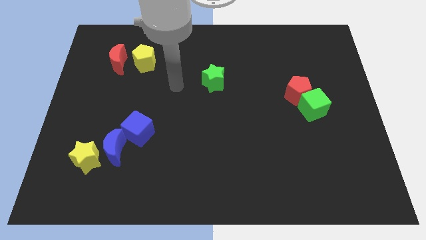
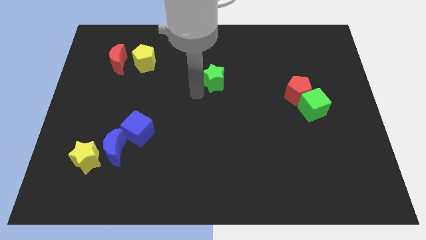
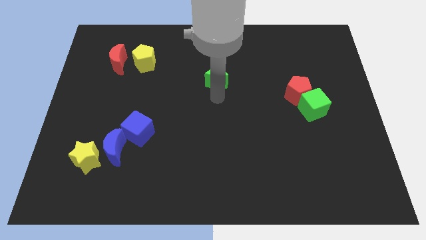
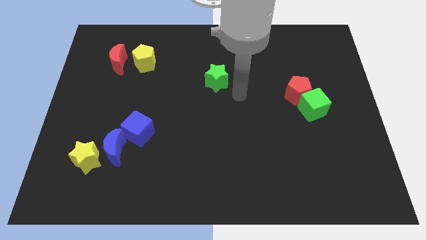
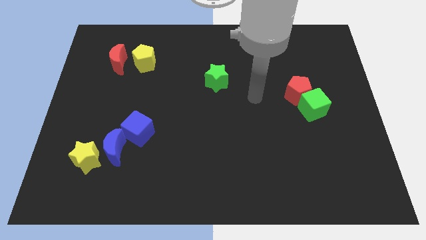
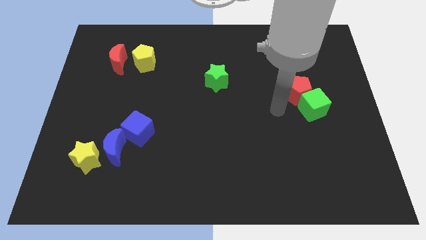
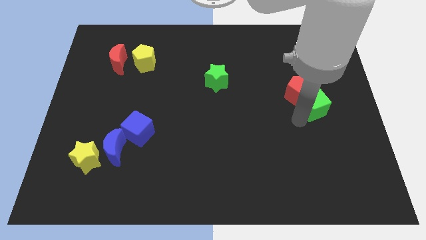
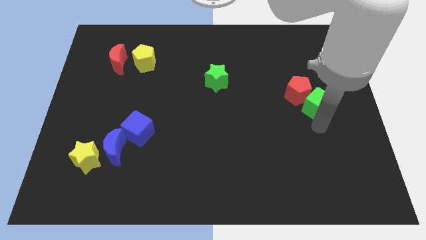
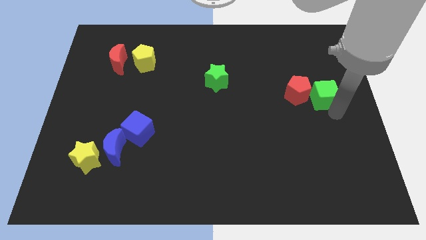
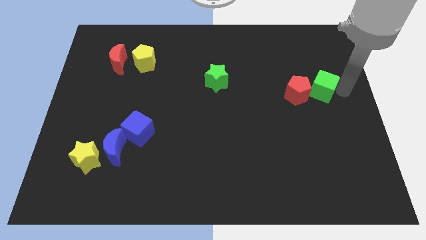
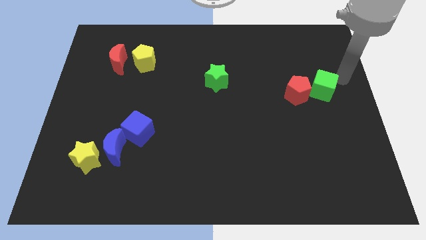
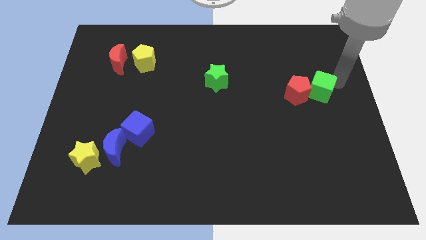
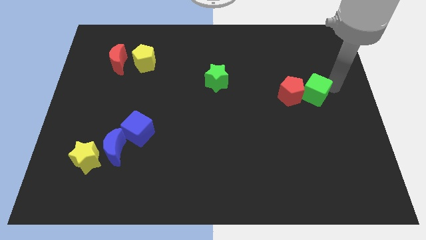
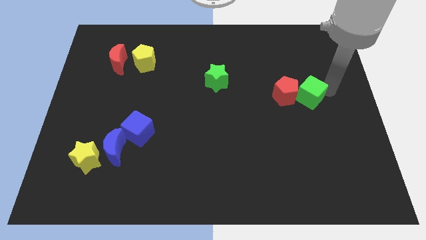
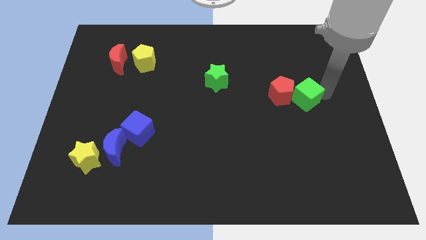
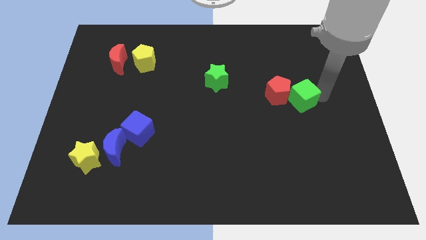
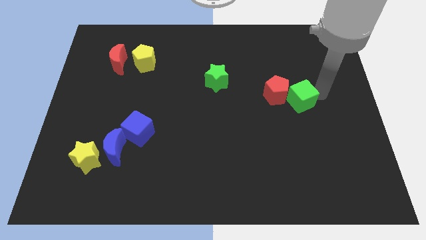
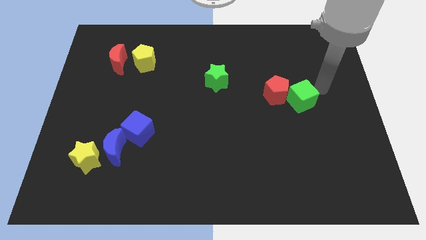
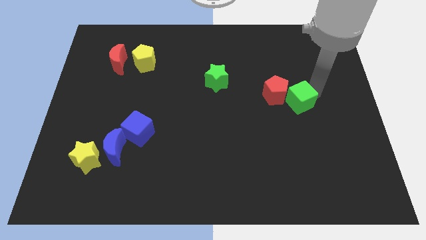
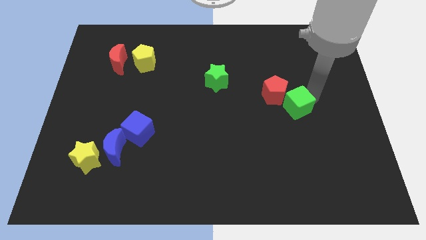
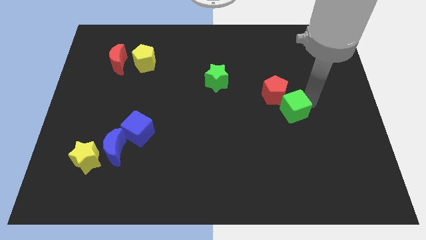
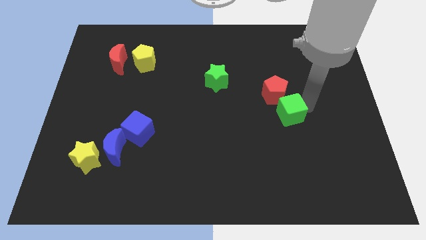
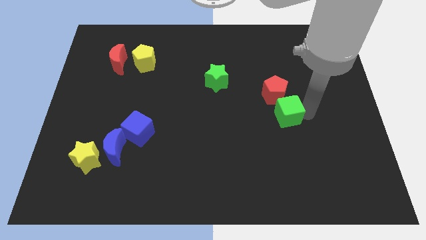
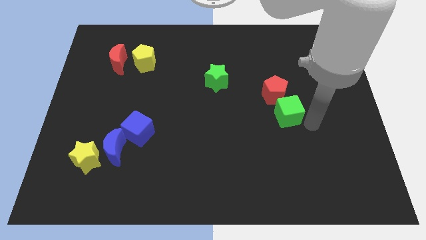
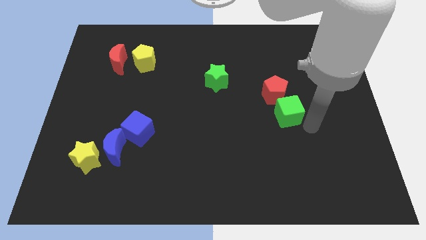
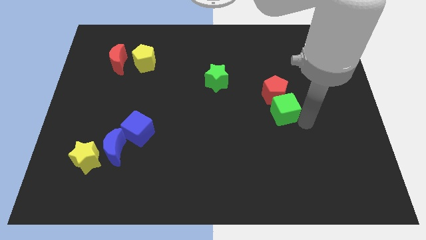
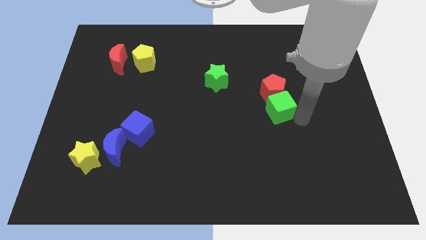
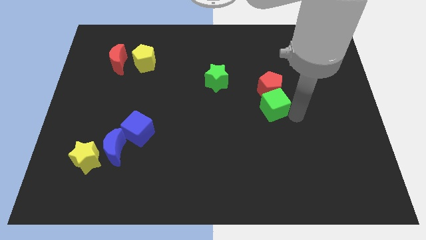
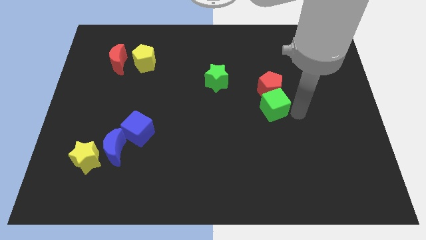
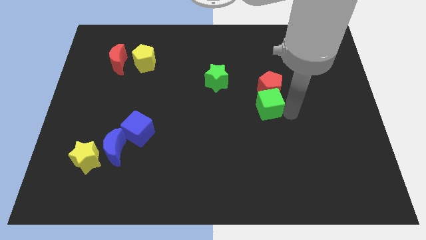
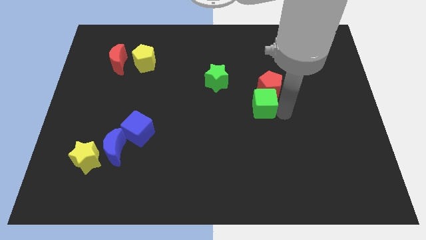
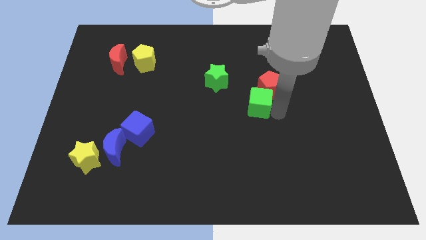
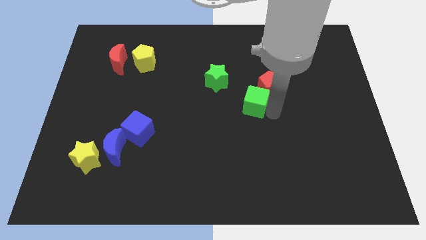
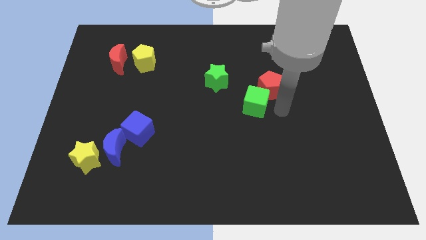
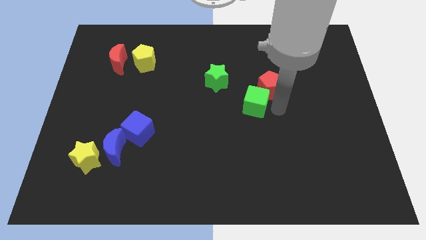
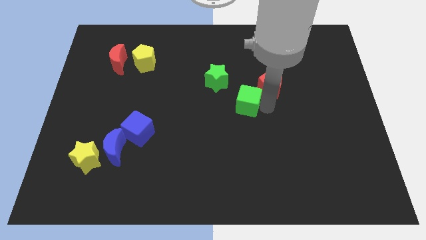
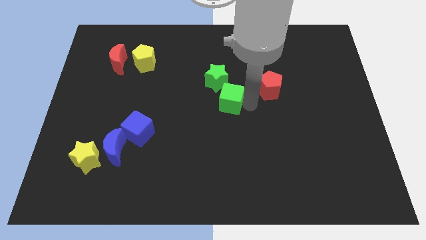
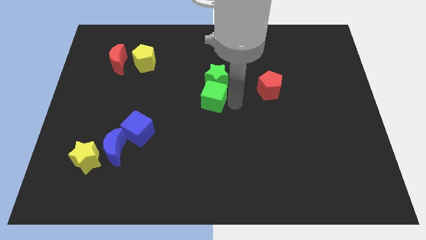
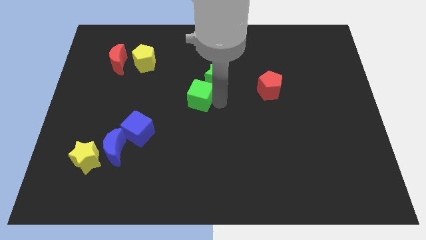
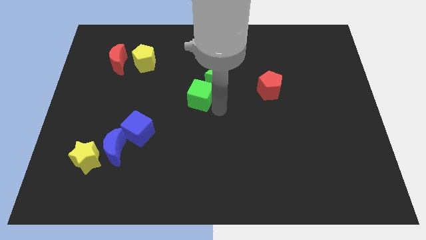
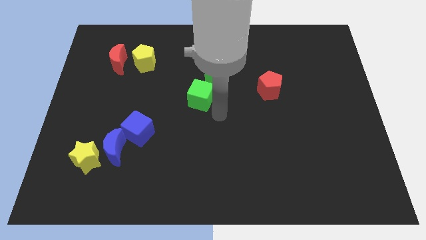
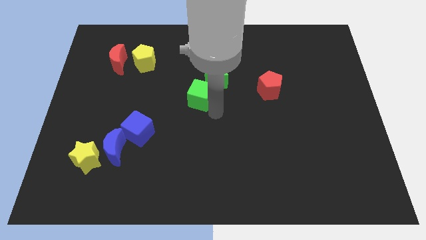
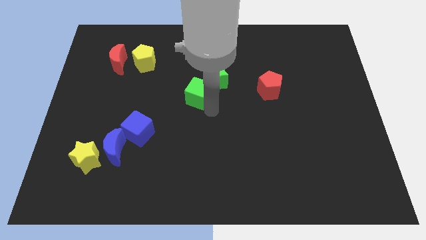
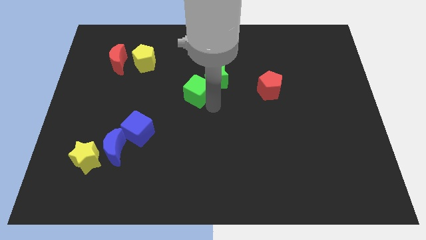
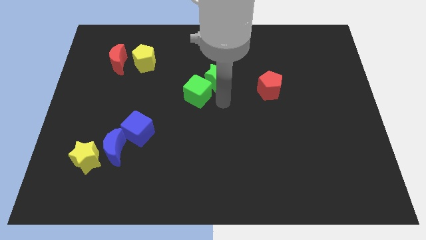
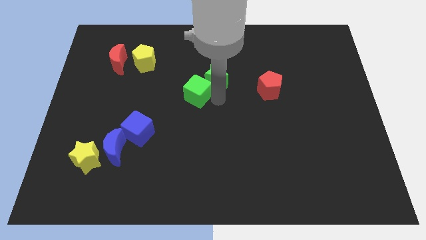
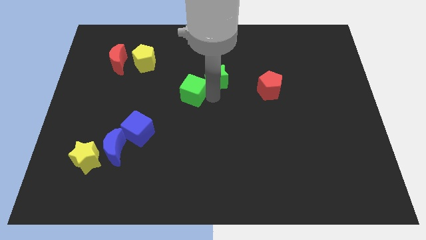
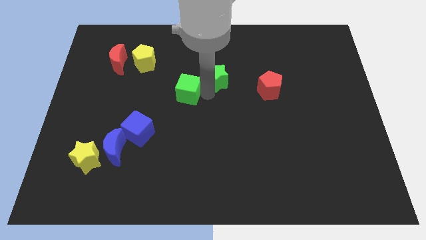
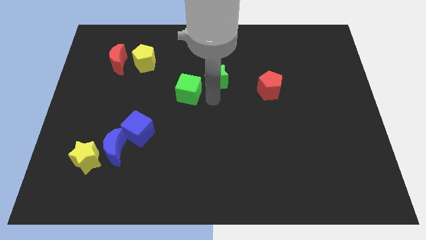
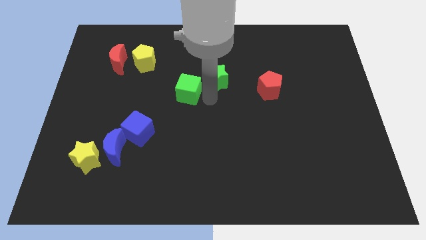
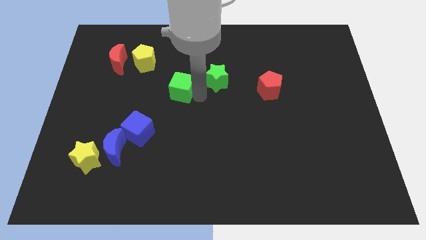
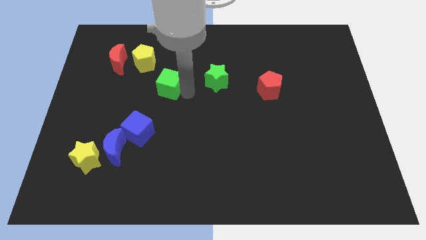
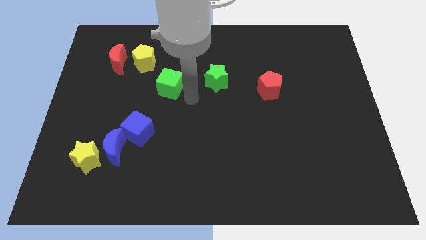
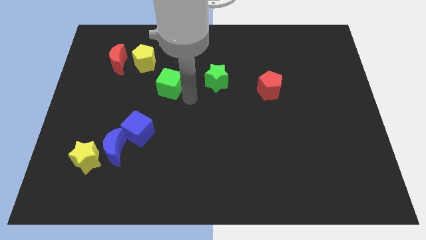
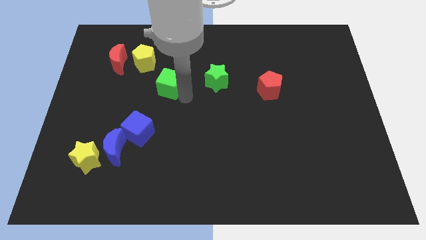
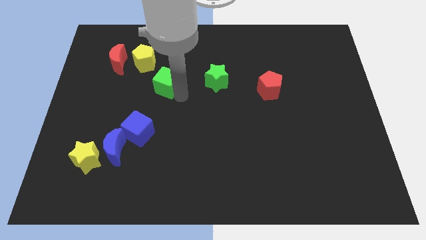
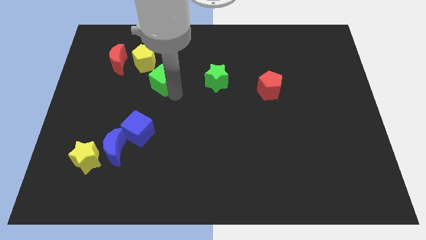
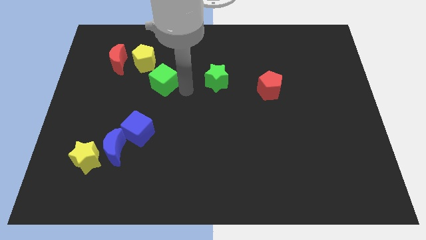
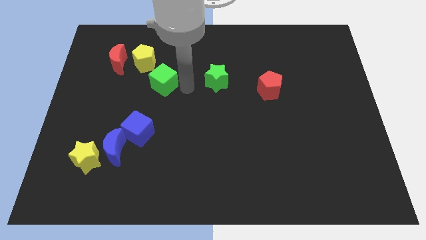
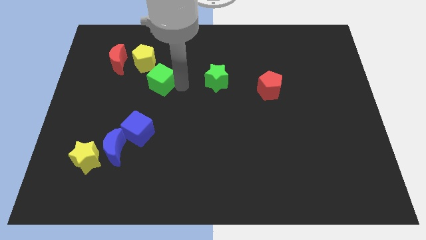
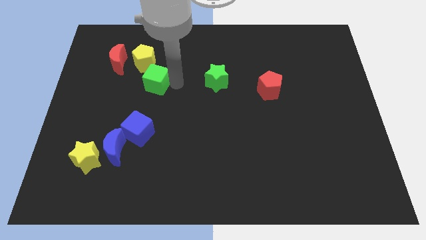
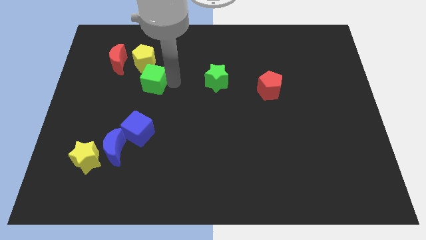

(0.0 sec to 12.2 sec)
put the green cube diagonally down and to the right of the red moon

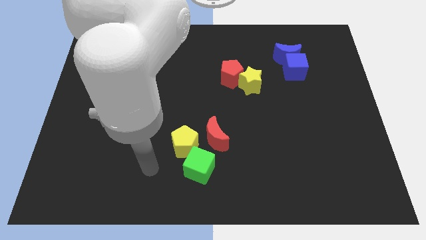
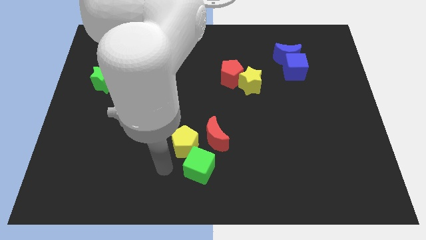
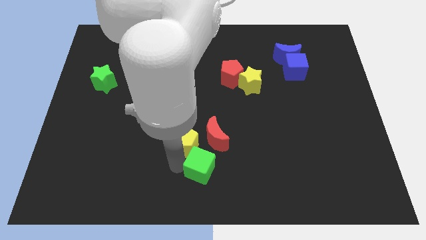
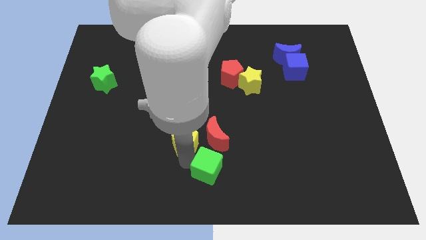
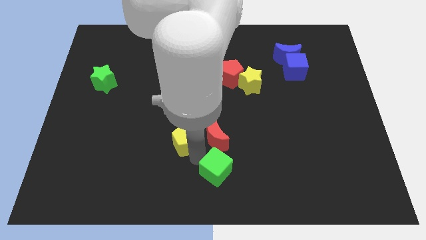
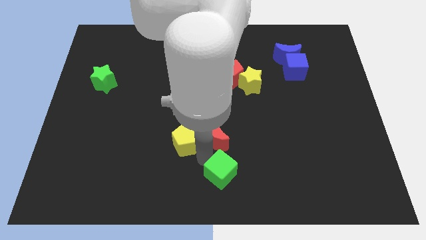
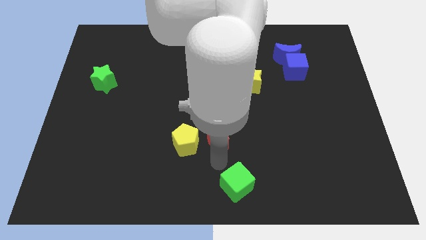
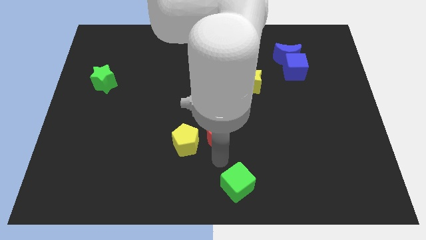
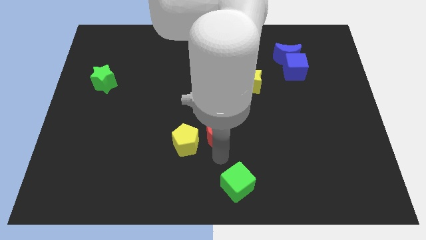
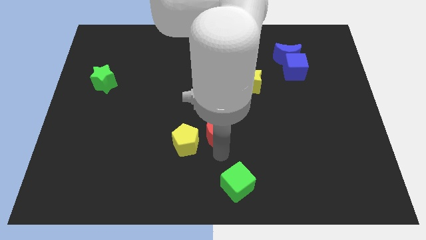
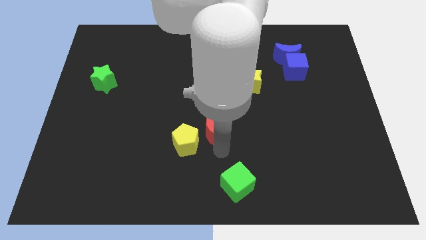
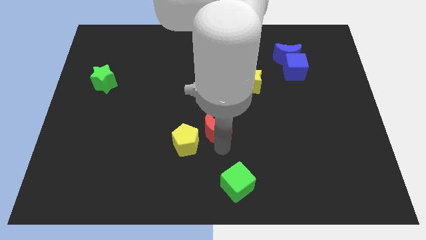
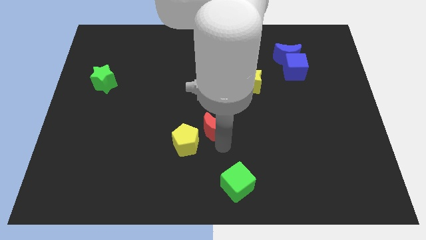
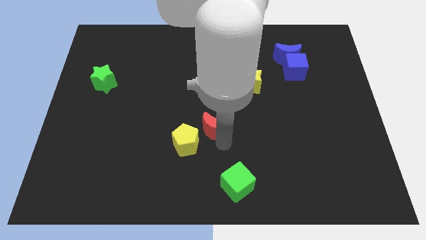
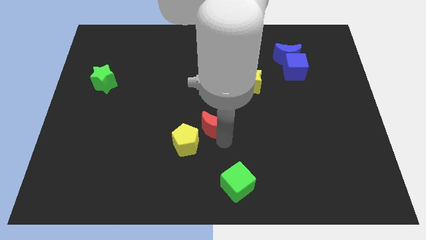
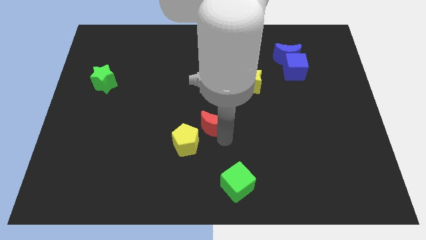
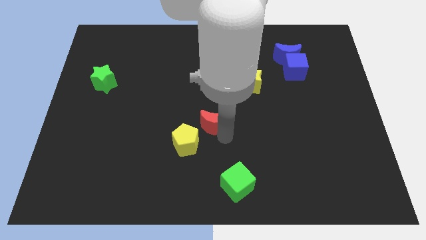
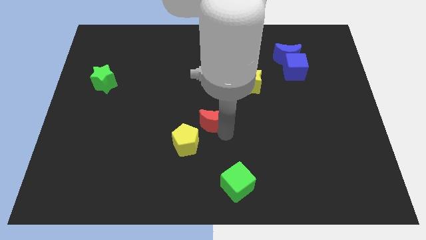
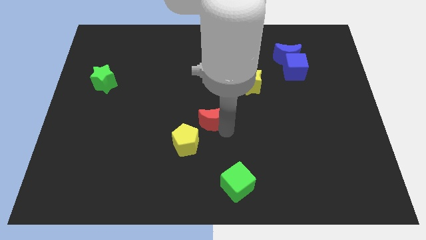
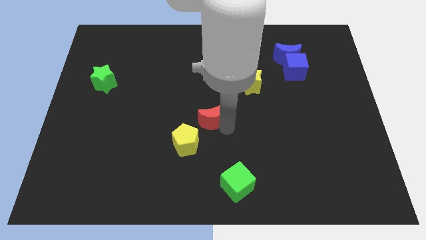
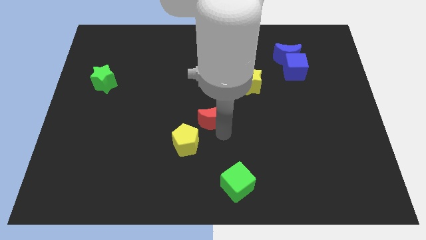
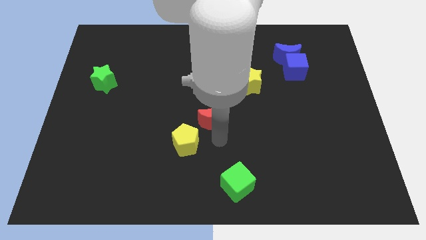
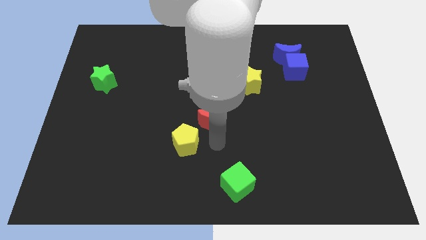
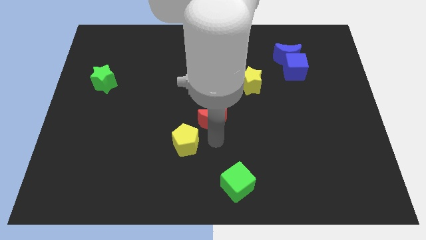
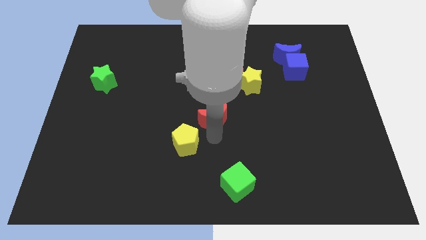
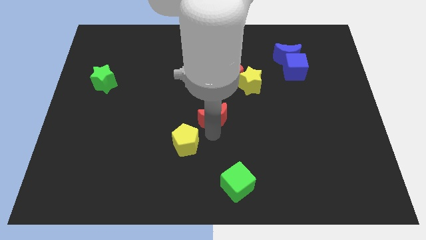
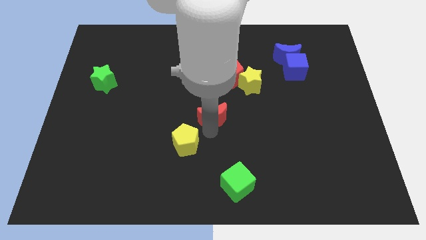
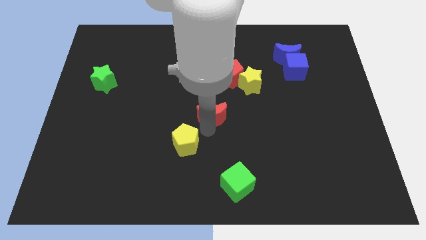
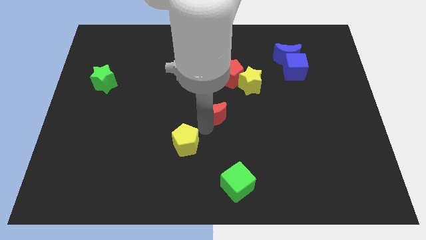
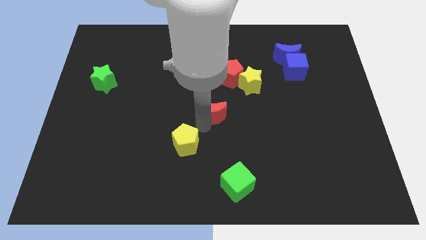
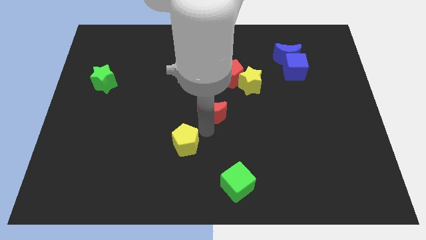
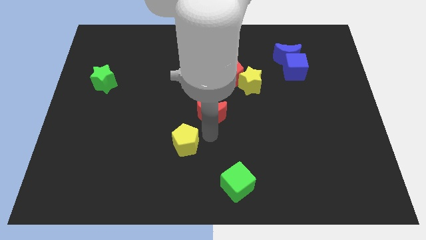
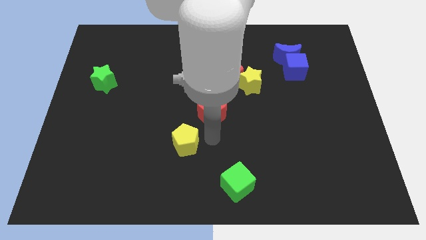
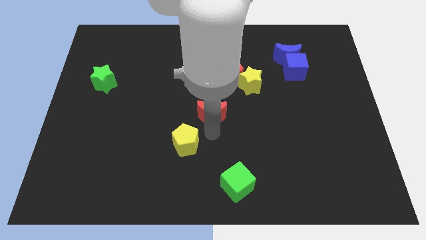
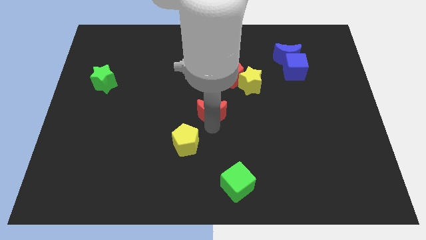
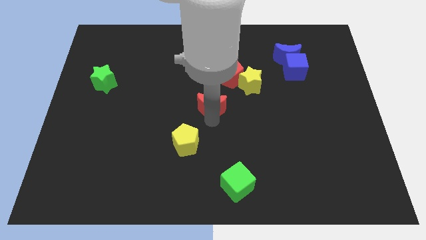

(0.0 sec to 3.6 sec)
push the red moon diagonally down and to the left of the red pentagon
